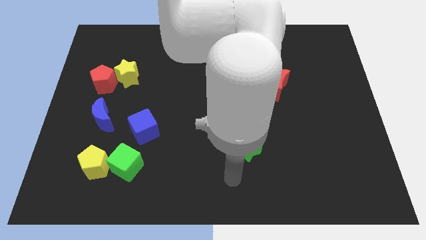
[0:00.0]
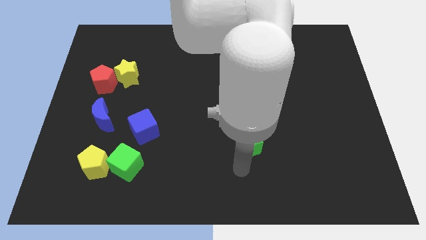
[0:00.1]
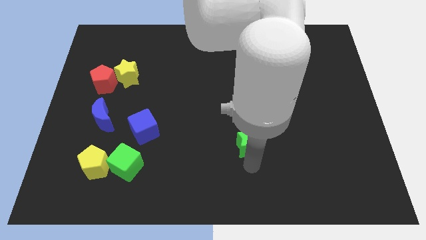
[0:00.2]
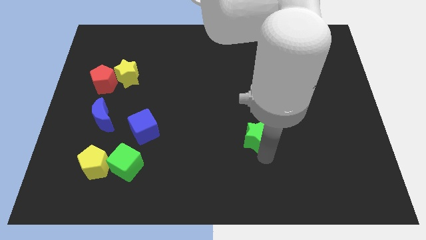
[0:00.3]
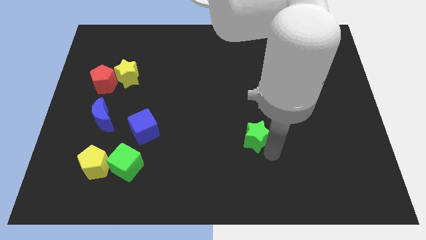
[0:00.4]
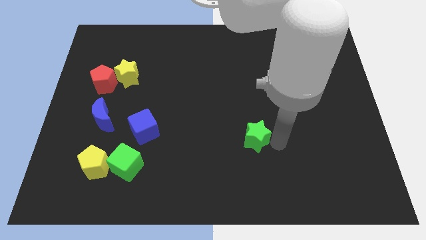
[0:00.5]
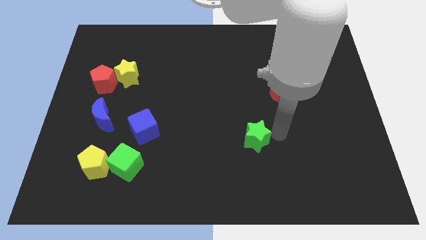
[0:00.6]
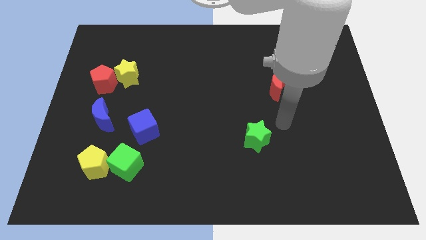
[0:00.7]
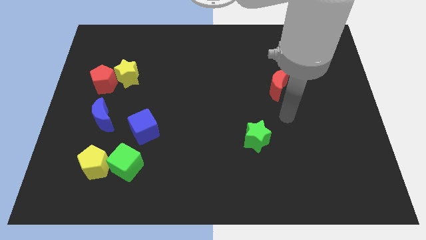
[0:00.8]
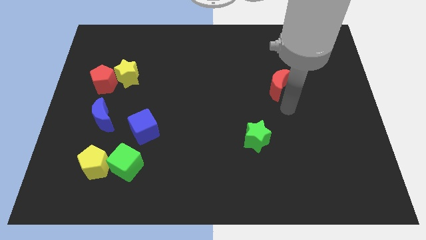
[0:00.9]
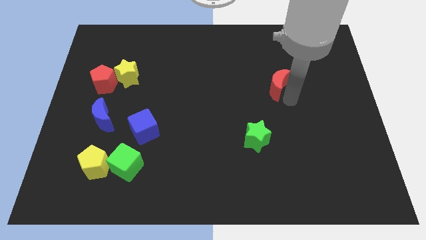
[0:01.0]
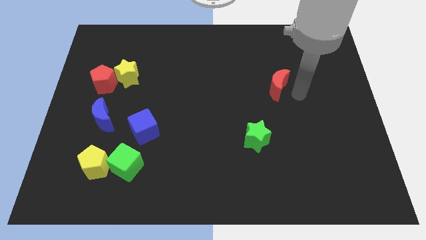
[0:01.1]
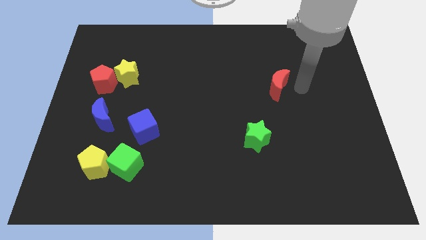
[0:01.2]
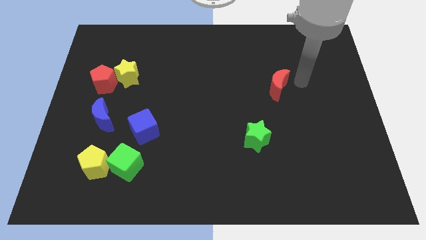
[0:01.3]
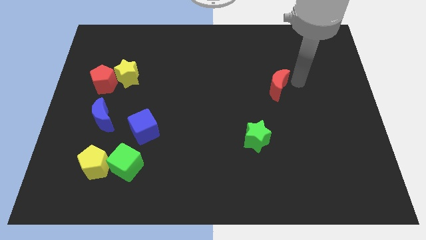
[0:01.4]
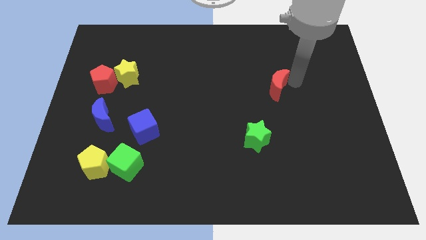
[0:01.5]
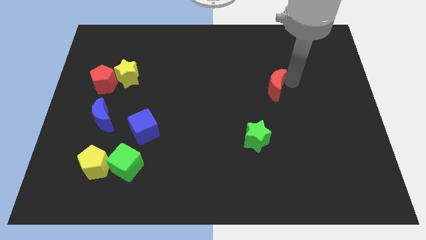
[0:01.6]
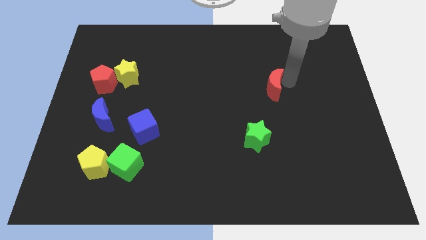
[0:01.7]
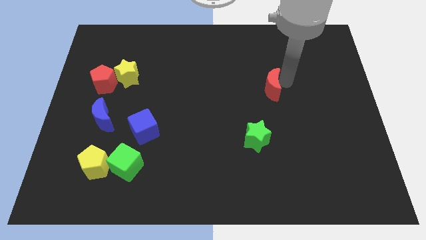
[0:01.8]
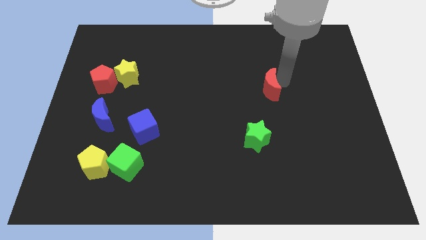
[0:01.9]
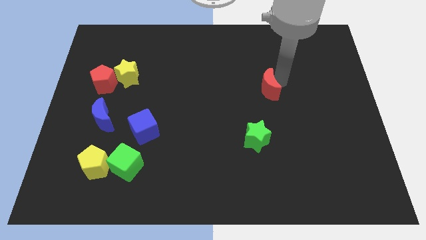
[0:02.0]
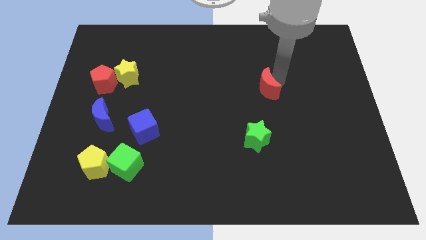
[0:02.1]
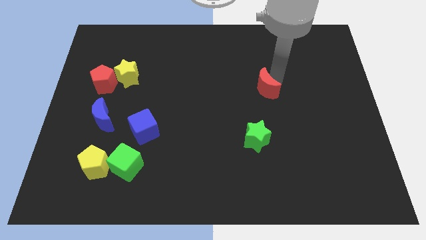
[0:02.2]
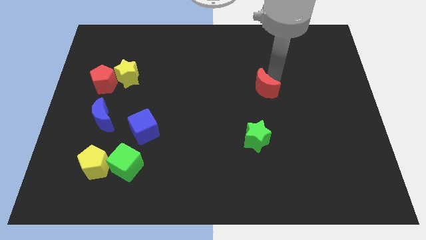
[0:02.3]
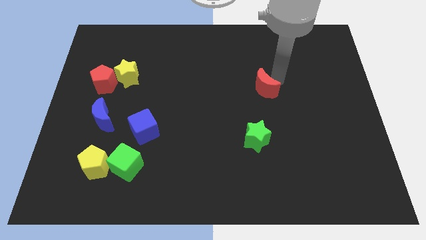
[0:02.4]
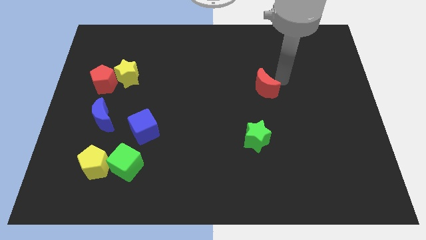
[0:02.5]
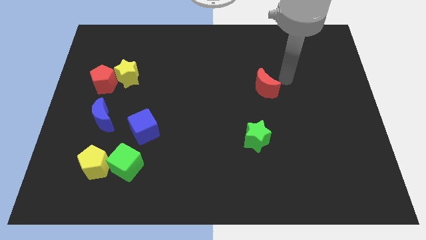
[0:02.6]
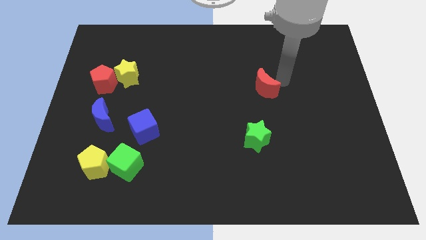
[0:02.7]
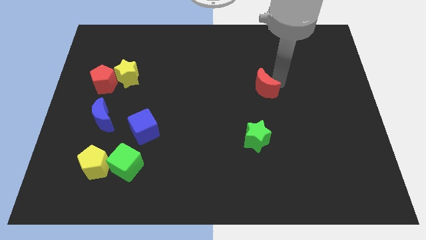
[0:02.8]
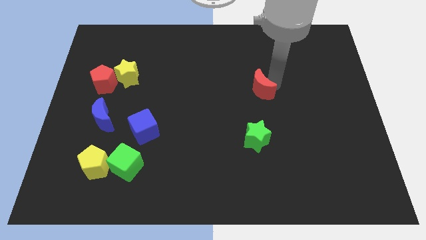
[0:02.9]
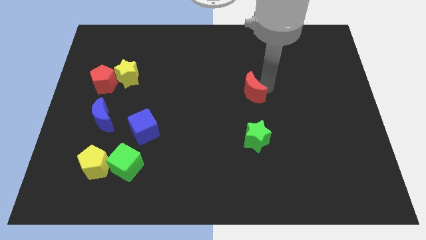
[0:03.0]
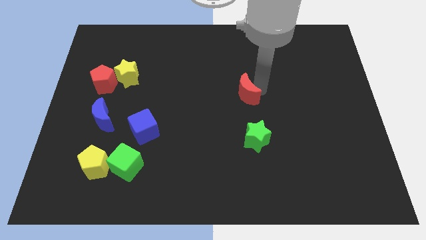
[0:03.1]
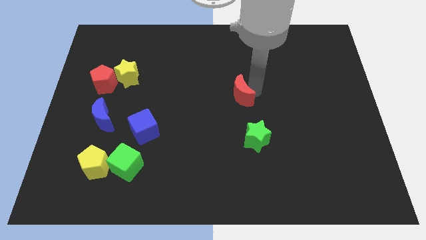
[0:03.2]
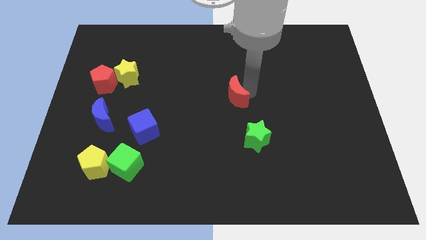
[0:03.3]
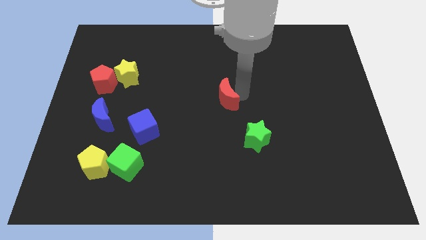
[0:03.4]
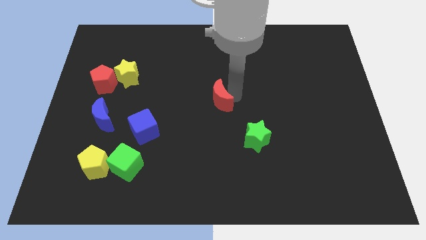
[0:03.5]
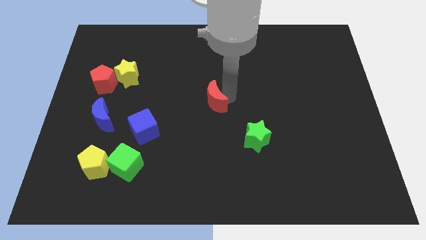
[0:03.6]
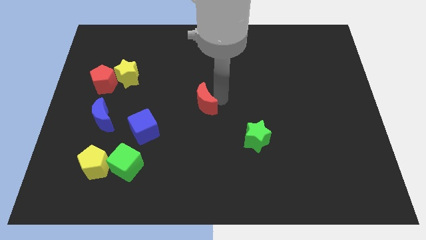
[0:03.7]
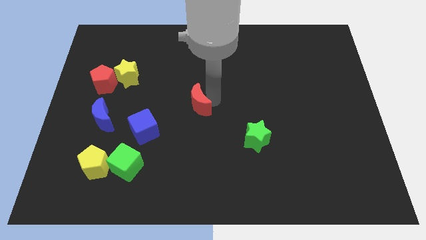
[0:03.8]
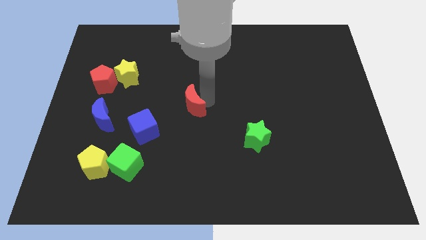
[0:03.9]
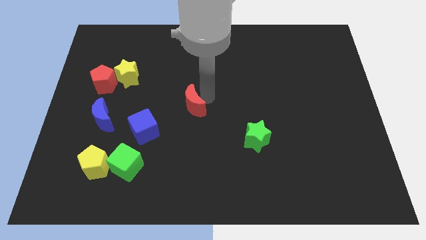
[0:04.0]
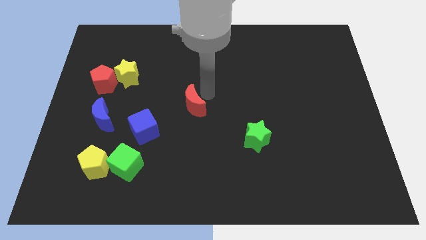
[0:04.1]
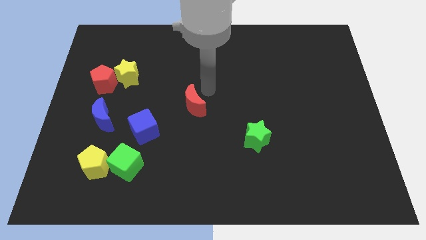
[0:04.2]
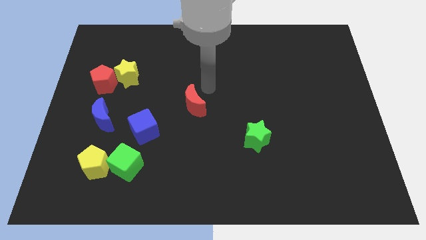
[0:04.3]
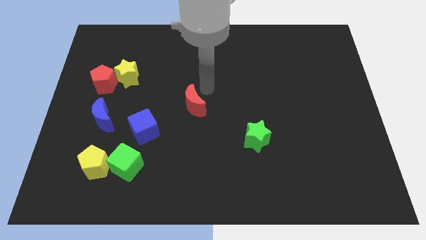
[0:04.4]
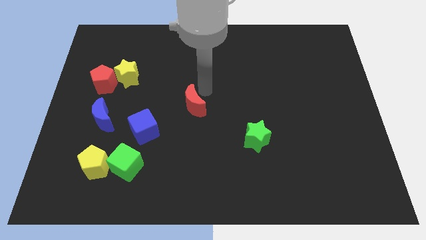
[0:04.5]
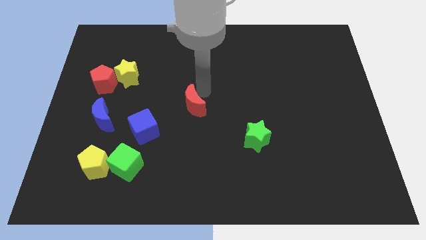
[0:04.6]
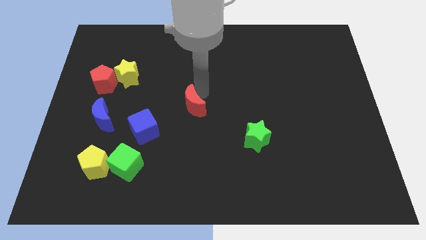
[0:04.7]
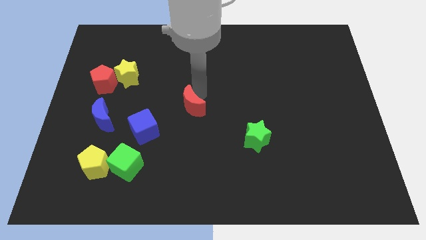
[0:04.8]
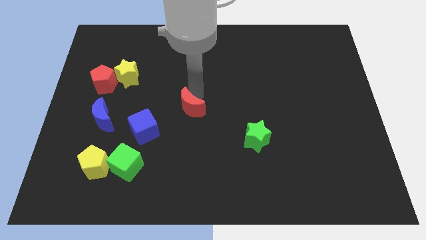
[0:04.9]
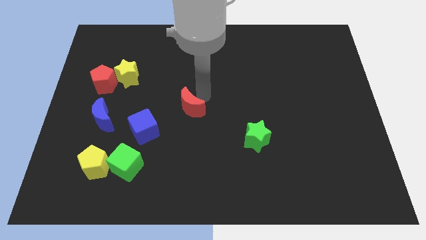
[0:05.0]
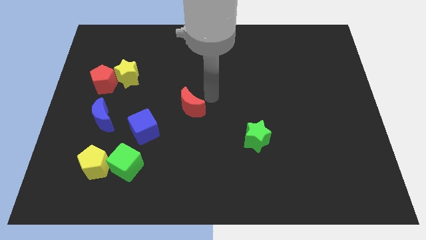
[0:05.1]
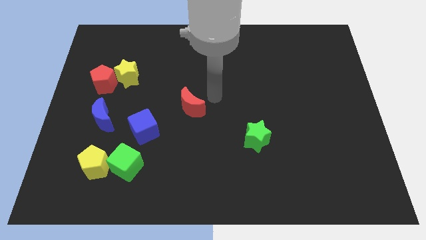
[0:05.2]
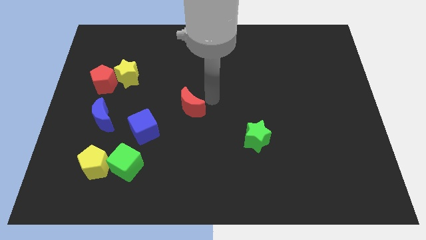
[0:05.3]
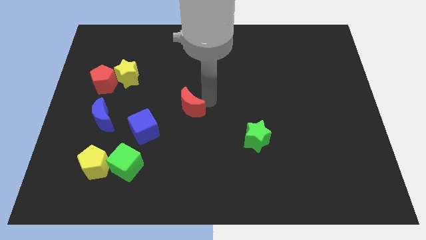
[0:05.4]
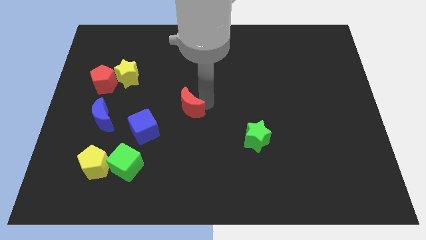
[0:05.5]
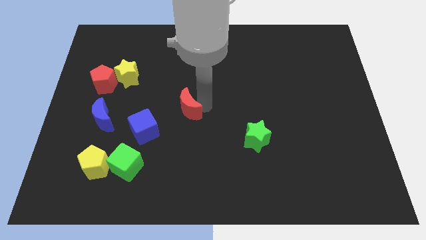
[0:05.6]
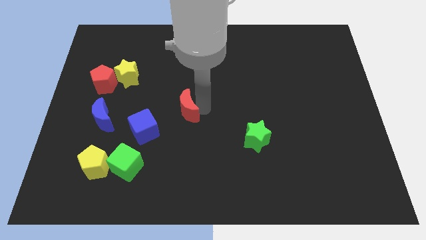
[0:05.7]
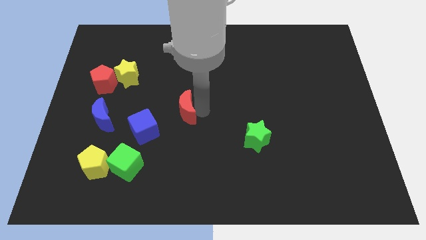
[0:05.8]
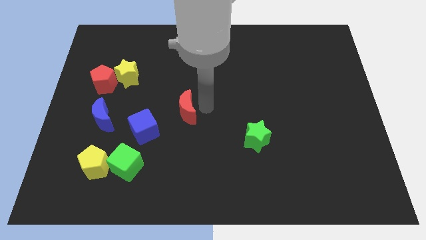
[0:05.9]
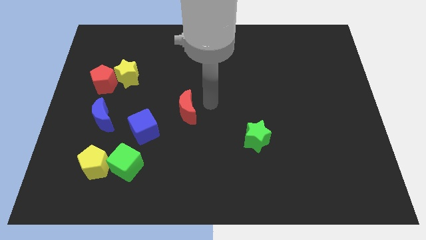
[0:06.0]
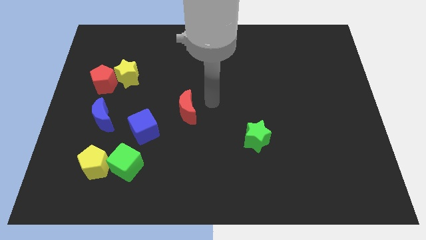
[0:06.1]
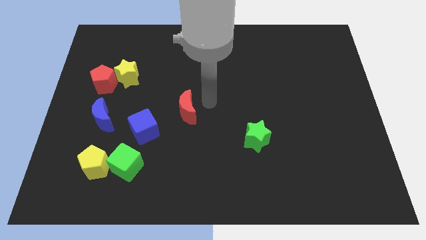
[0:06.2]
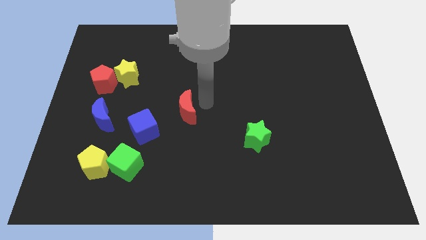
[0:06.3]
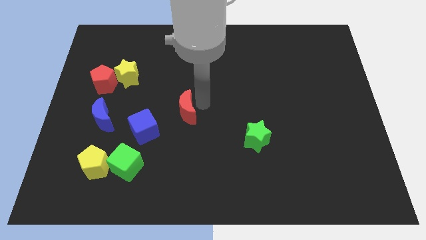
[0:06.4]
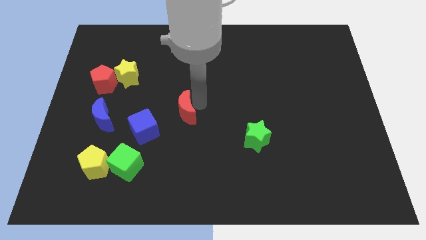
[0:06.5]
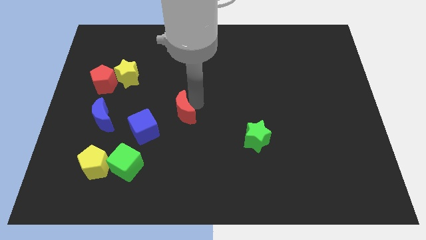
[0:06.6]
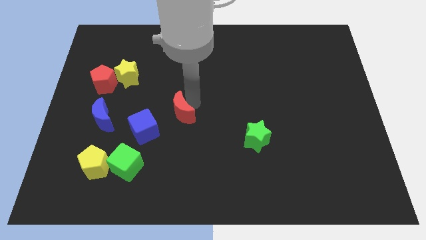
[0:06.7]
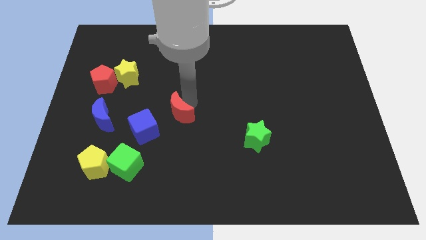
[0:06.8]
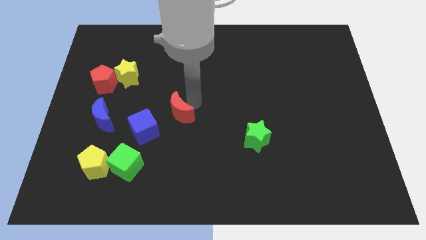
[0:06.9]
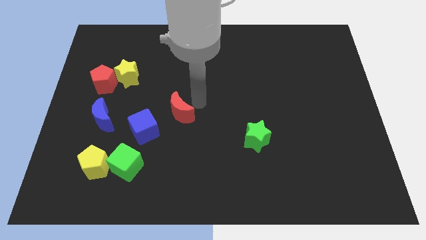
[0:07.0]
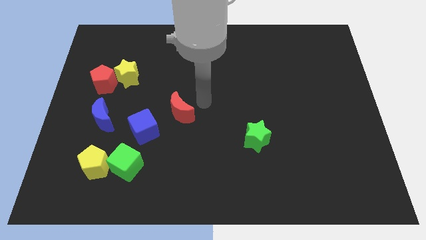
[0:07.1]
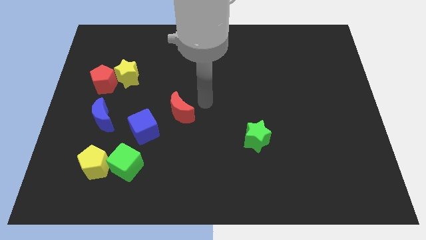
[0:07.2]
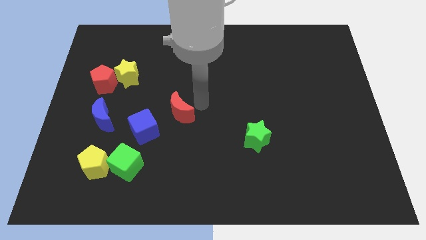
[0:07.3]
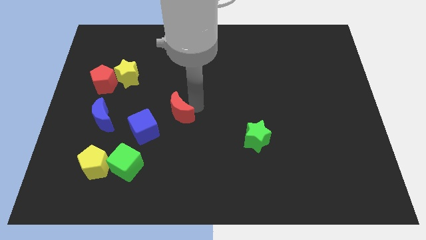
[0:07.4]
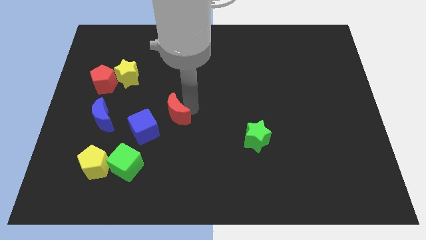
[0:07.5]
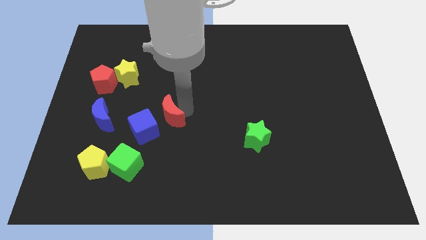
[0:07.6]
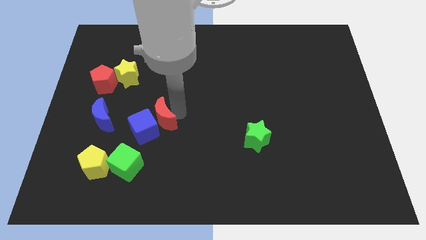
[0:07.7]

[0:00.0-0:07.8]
put the red moon to the blue cube
